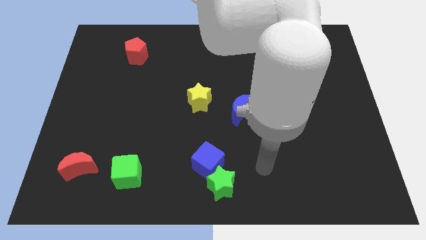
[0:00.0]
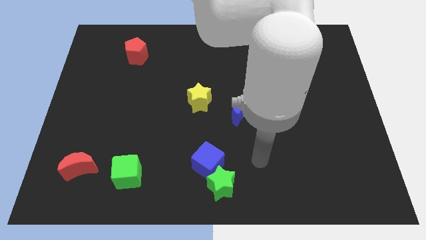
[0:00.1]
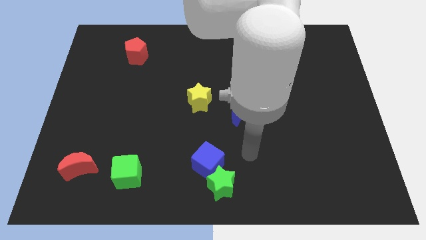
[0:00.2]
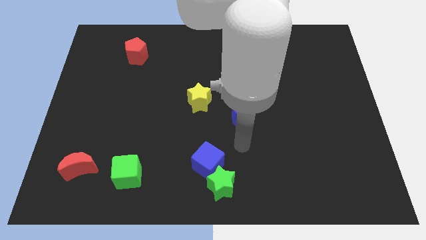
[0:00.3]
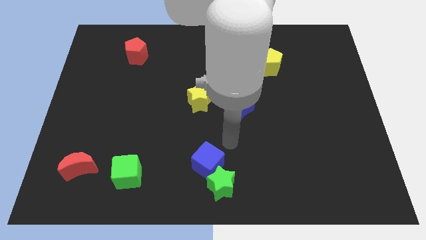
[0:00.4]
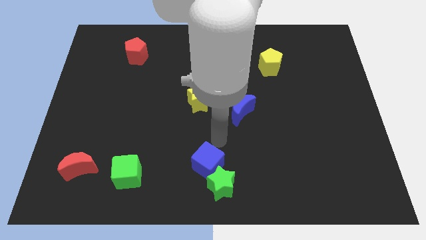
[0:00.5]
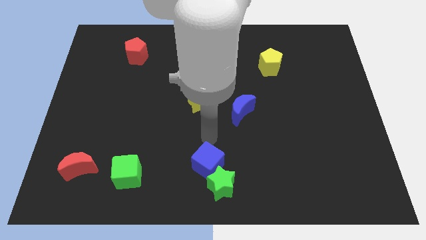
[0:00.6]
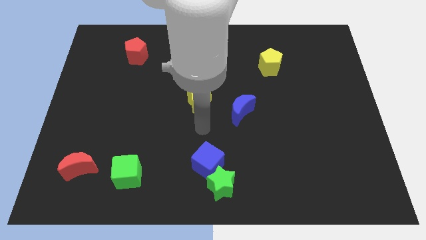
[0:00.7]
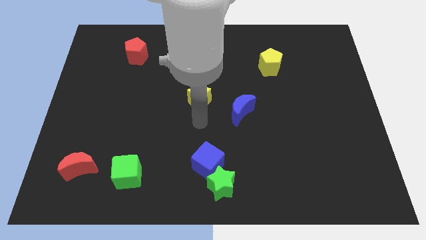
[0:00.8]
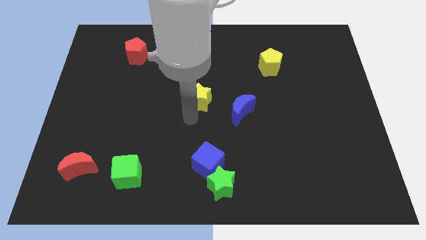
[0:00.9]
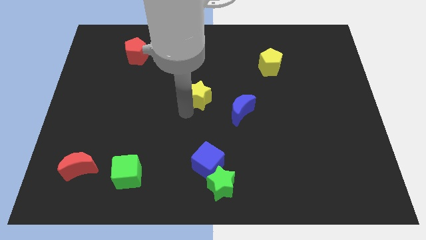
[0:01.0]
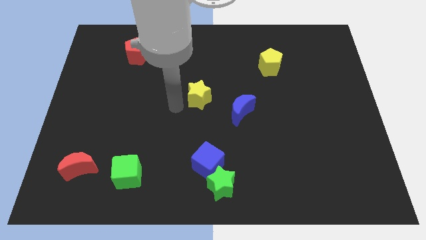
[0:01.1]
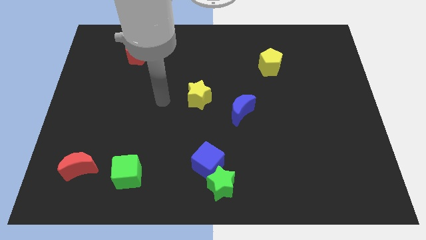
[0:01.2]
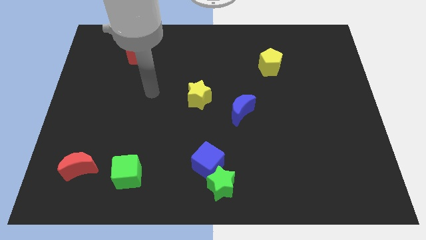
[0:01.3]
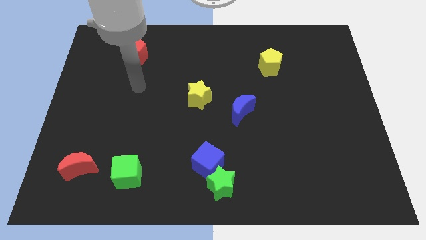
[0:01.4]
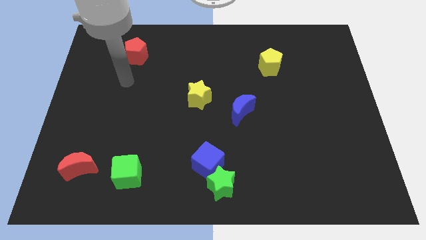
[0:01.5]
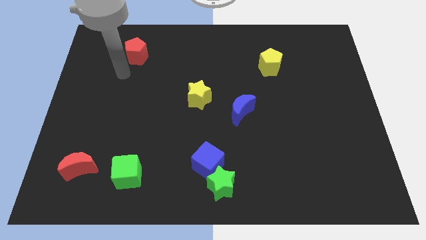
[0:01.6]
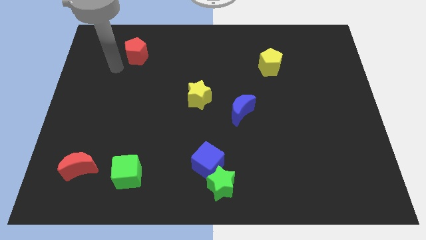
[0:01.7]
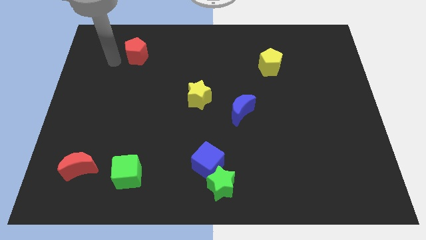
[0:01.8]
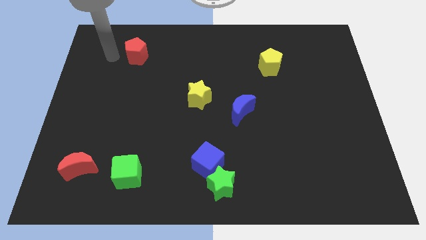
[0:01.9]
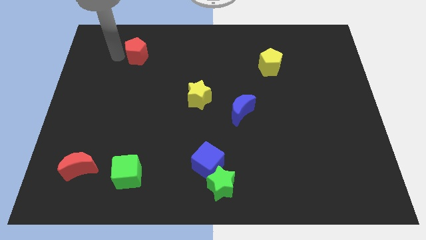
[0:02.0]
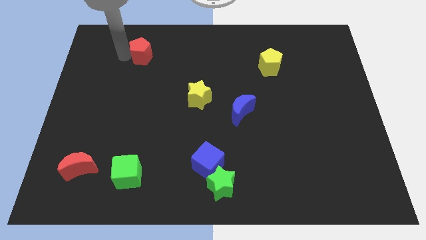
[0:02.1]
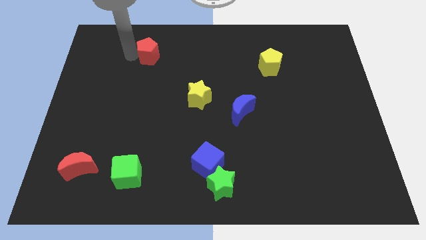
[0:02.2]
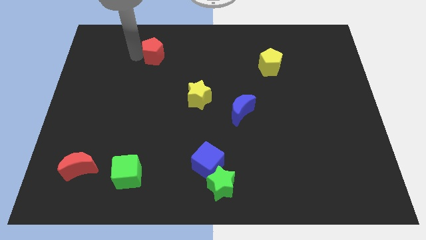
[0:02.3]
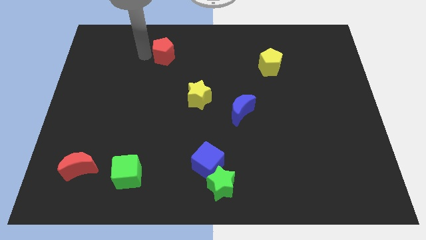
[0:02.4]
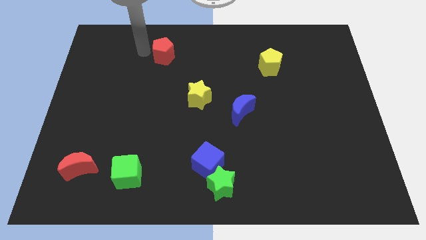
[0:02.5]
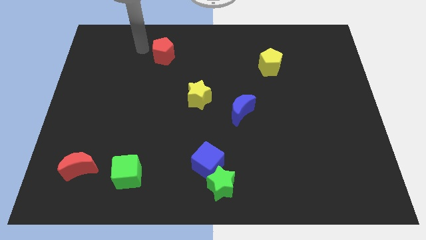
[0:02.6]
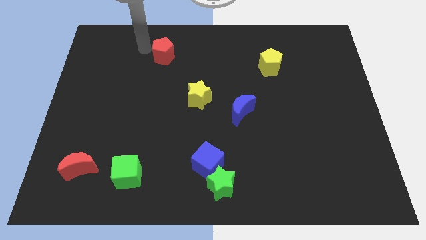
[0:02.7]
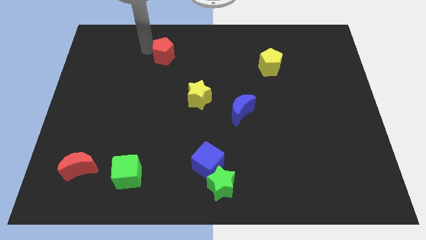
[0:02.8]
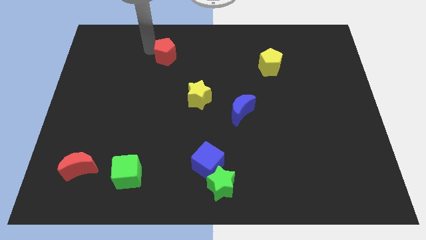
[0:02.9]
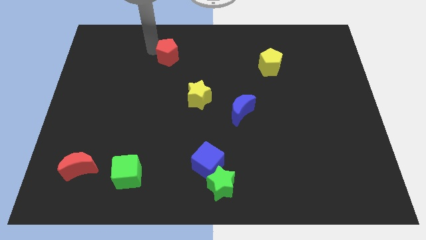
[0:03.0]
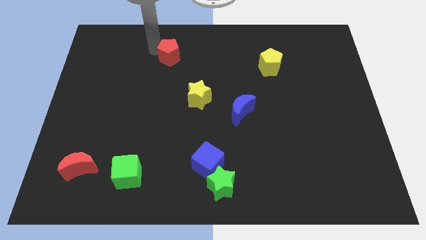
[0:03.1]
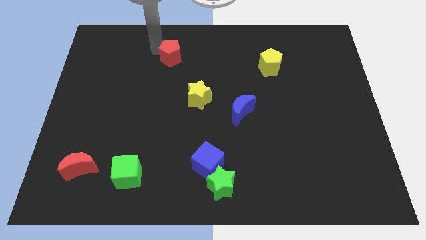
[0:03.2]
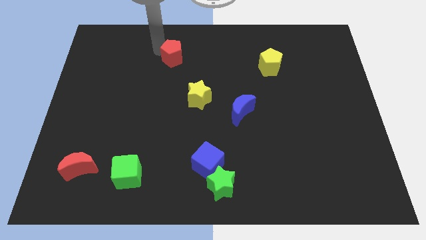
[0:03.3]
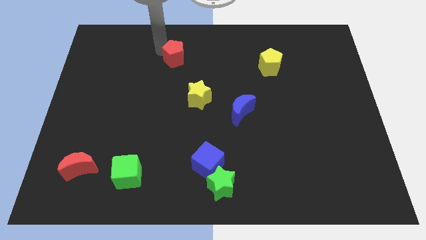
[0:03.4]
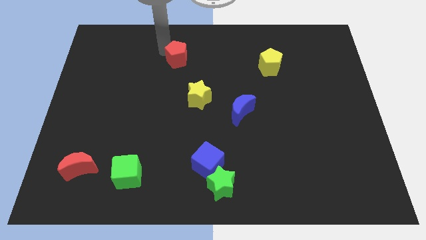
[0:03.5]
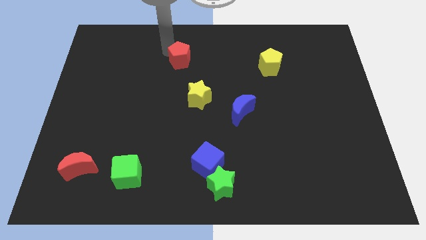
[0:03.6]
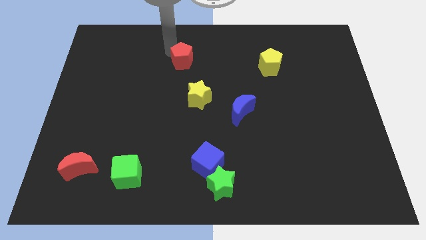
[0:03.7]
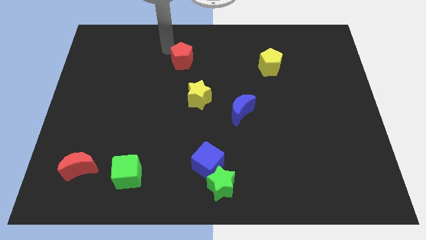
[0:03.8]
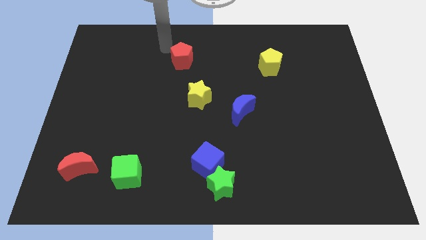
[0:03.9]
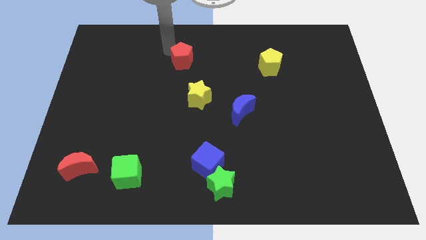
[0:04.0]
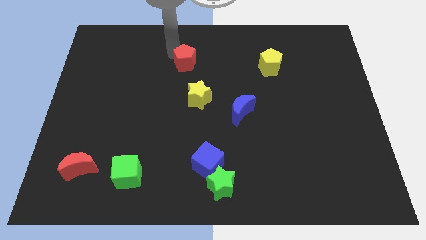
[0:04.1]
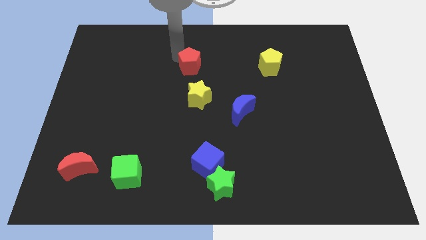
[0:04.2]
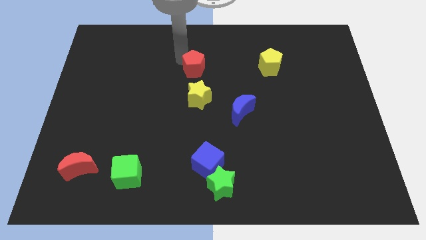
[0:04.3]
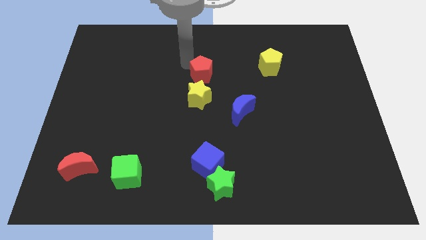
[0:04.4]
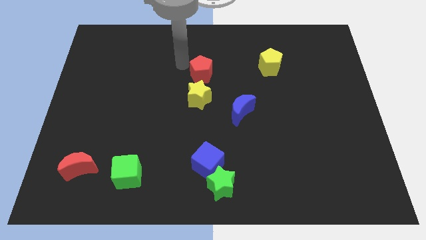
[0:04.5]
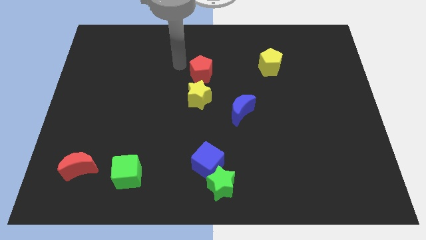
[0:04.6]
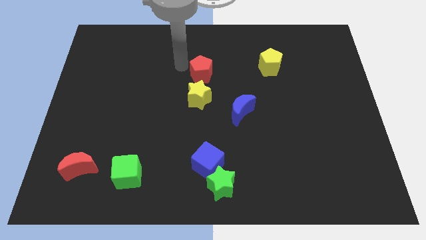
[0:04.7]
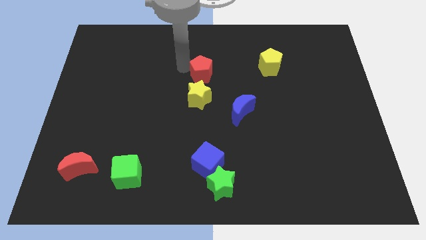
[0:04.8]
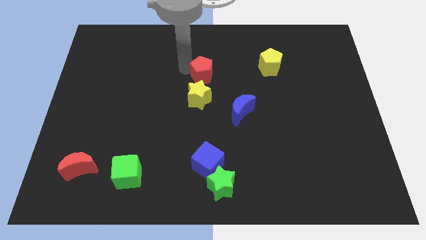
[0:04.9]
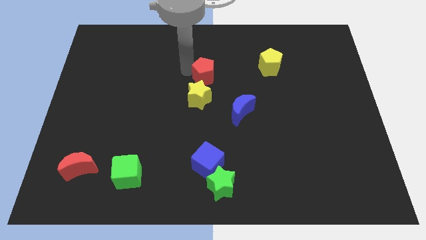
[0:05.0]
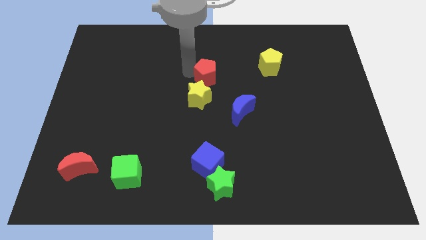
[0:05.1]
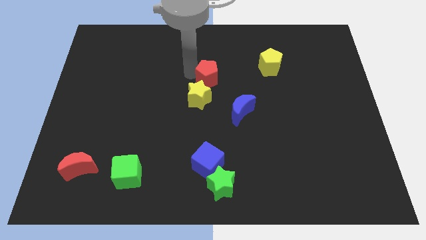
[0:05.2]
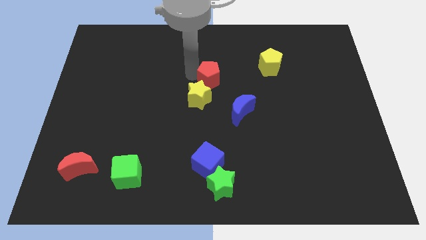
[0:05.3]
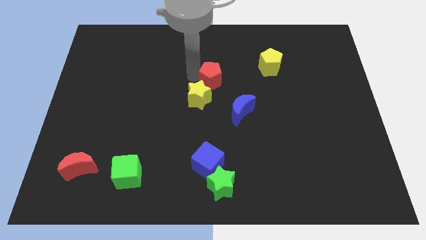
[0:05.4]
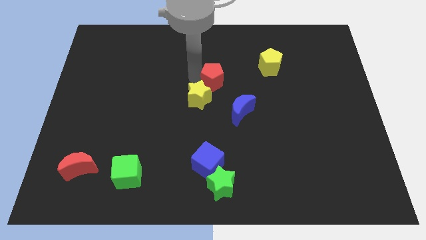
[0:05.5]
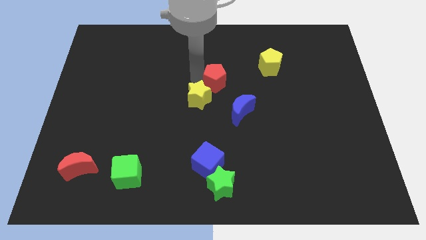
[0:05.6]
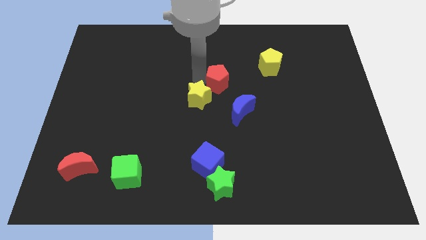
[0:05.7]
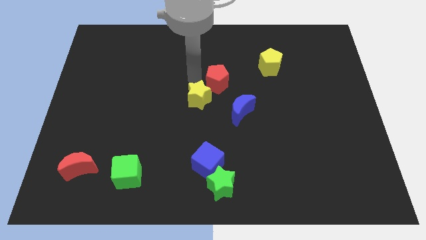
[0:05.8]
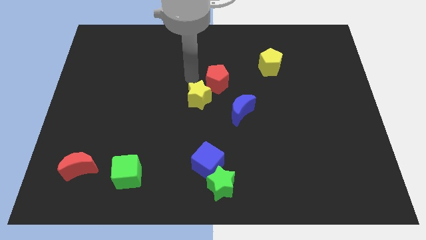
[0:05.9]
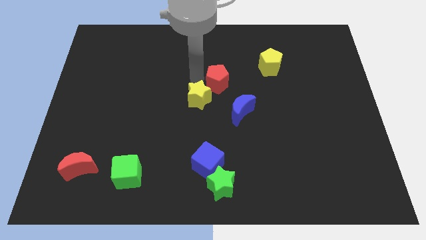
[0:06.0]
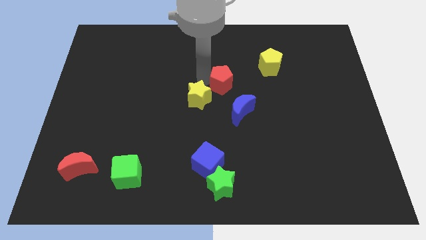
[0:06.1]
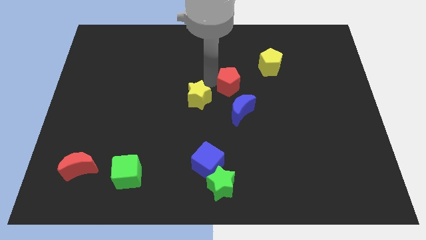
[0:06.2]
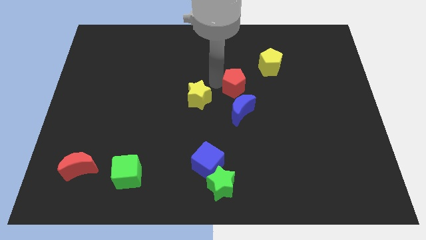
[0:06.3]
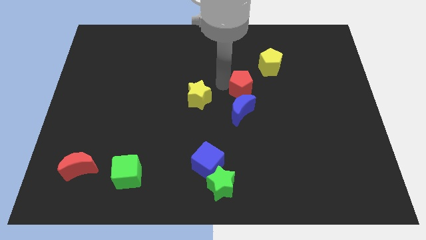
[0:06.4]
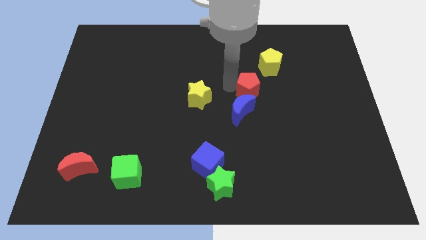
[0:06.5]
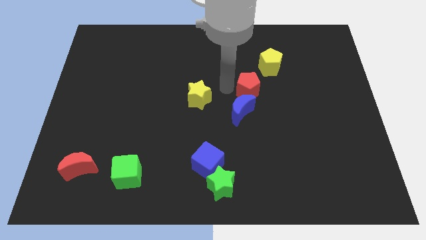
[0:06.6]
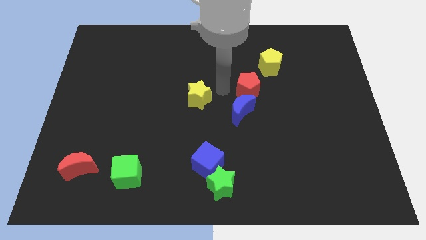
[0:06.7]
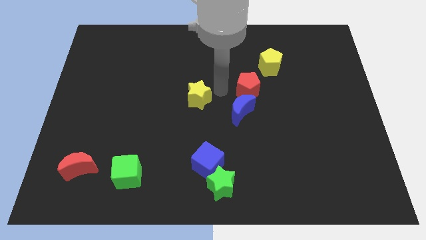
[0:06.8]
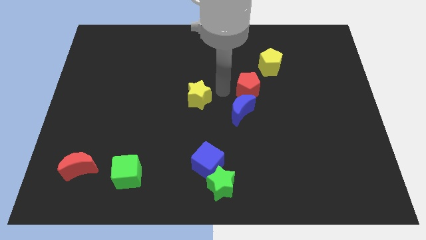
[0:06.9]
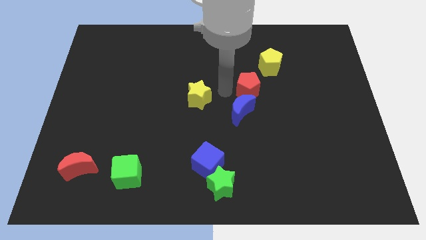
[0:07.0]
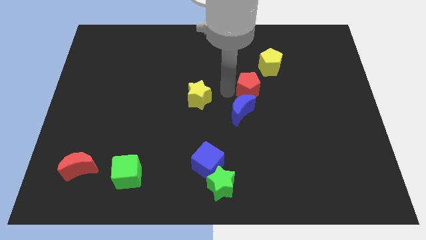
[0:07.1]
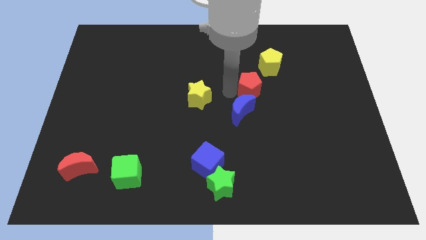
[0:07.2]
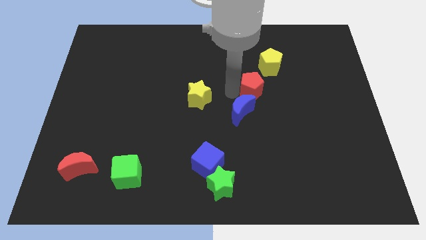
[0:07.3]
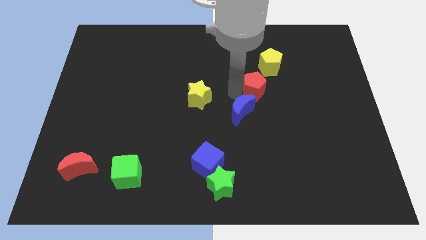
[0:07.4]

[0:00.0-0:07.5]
push the red pentagon below the yellow pentagon

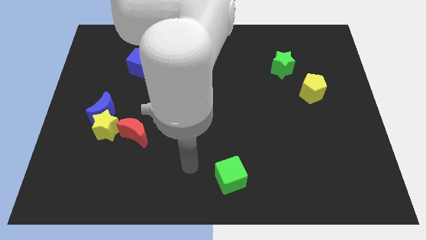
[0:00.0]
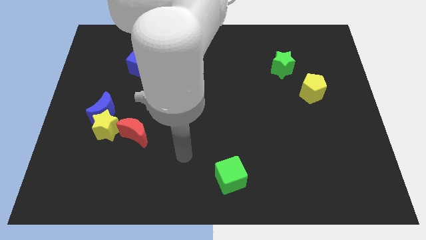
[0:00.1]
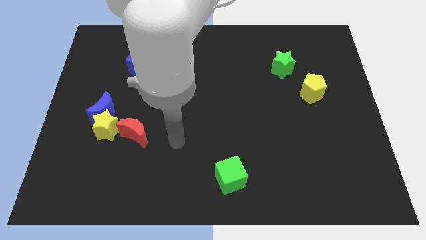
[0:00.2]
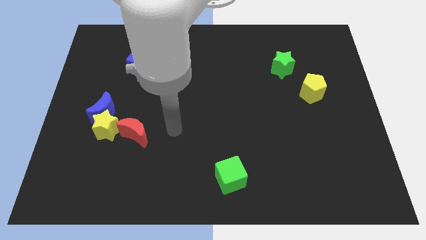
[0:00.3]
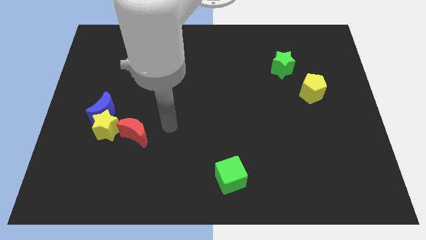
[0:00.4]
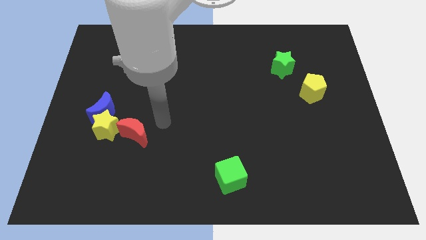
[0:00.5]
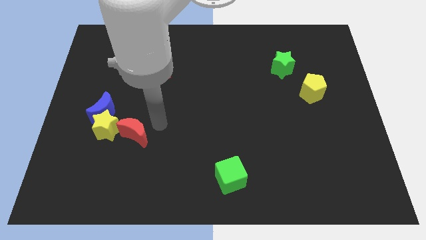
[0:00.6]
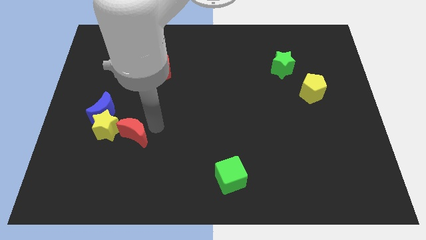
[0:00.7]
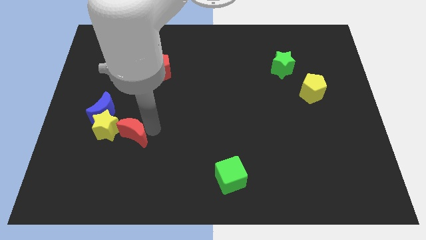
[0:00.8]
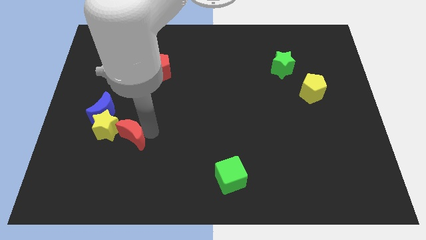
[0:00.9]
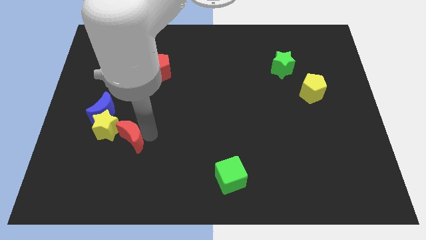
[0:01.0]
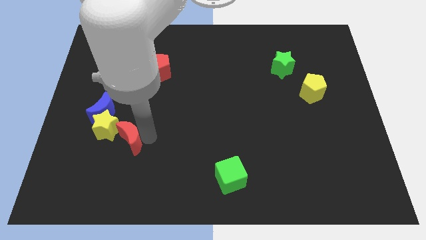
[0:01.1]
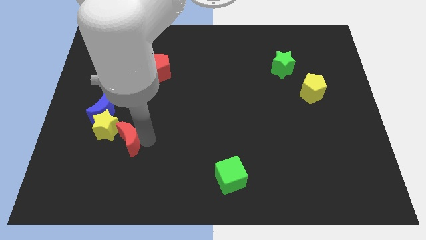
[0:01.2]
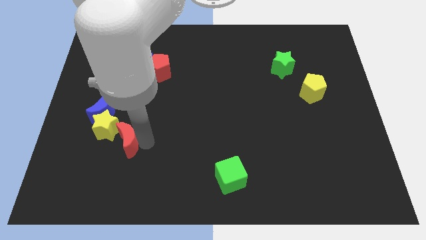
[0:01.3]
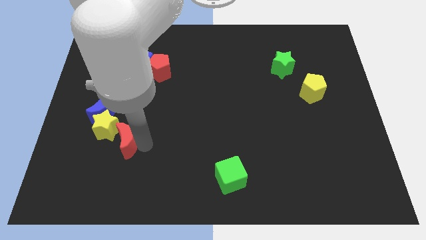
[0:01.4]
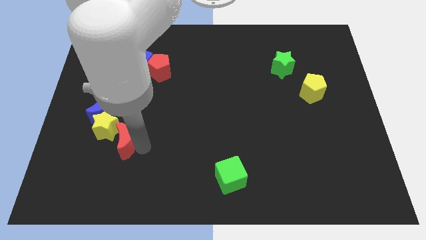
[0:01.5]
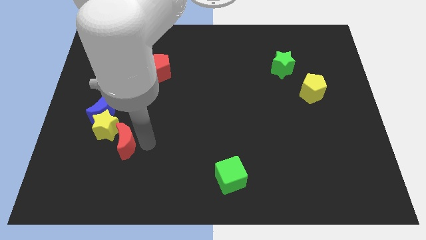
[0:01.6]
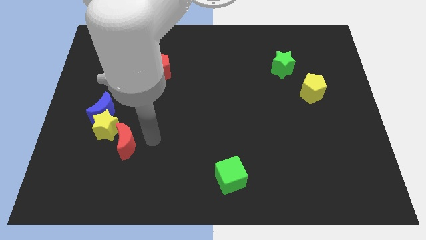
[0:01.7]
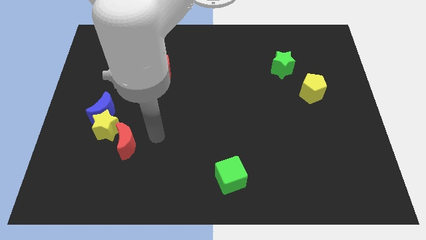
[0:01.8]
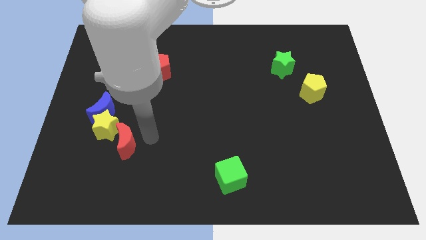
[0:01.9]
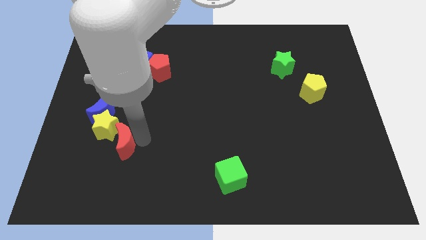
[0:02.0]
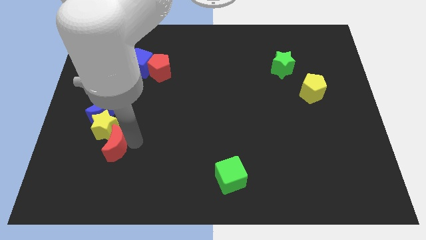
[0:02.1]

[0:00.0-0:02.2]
push the red moon below the blue moon
